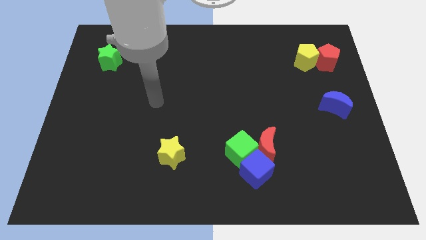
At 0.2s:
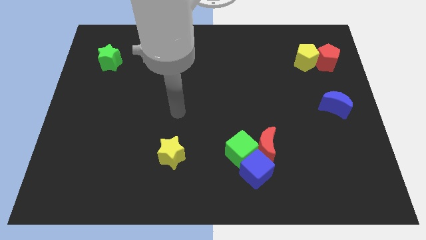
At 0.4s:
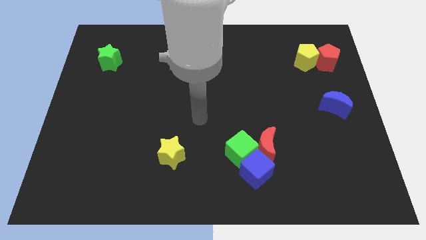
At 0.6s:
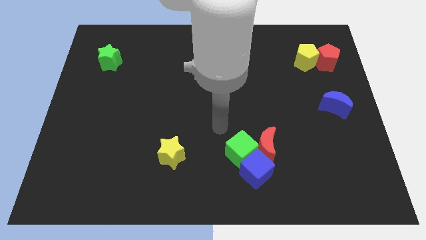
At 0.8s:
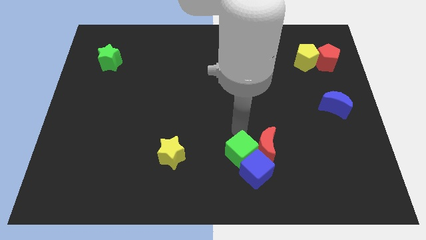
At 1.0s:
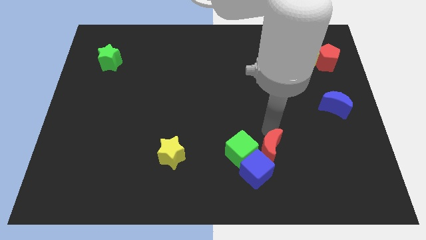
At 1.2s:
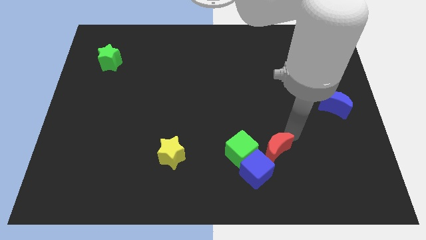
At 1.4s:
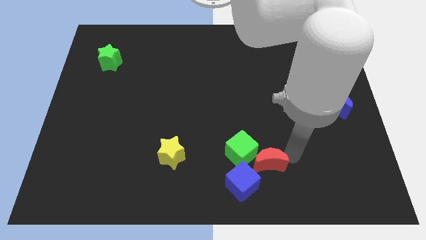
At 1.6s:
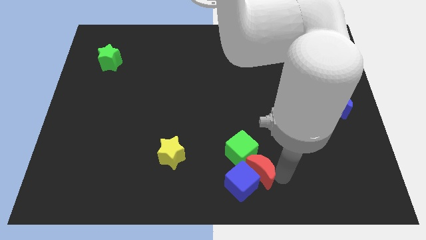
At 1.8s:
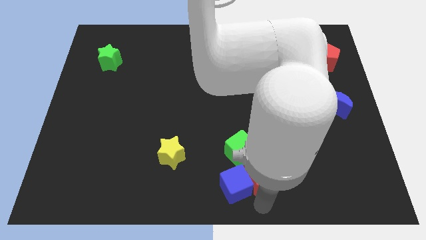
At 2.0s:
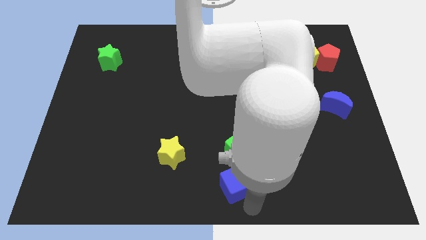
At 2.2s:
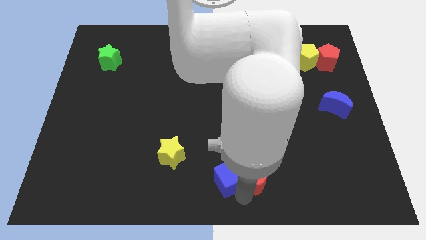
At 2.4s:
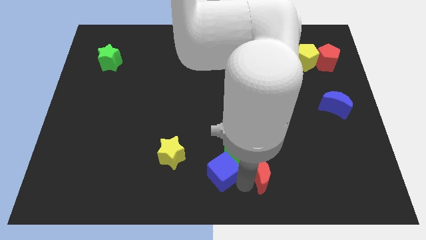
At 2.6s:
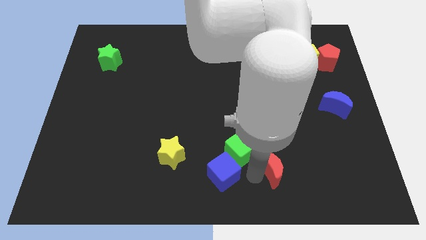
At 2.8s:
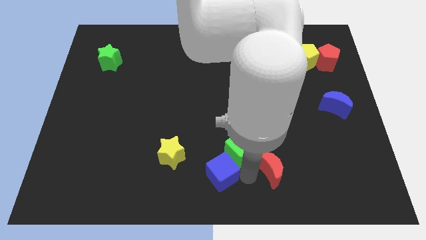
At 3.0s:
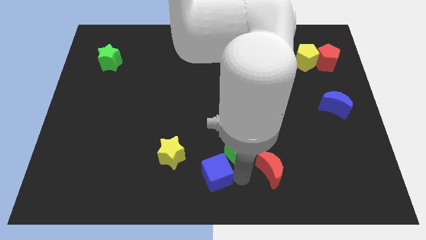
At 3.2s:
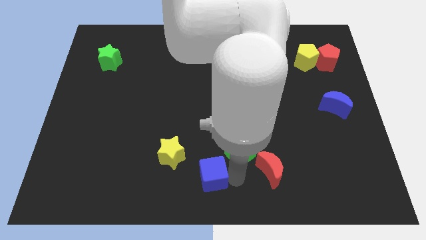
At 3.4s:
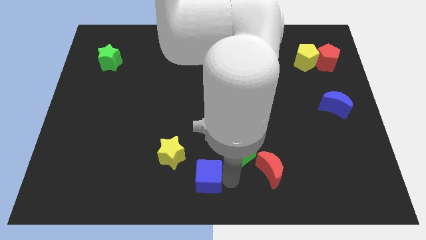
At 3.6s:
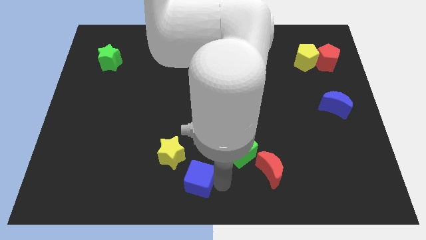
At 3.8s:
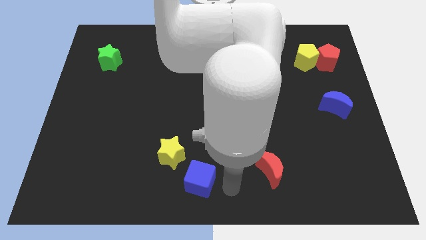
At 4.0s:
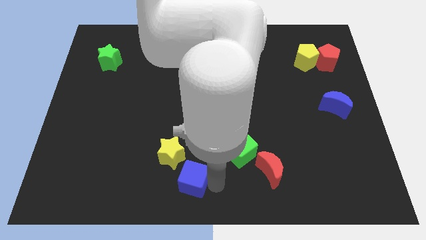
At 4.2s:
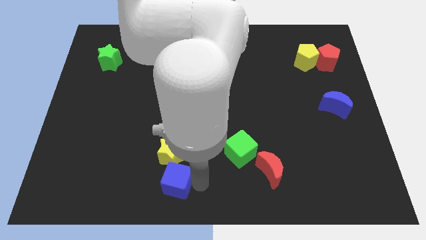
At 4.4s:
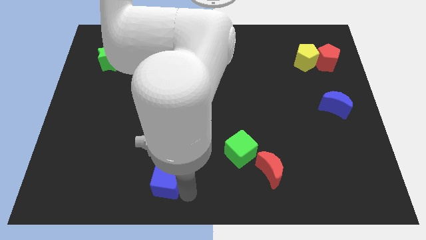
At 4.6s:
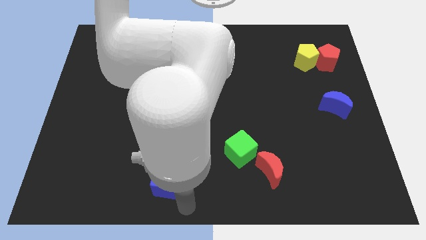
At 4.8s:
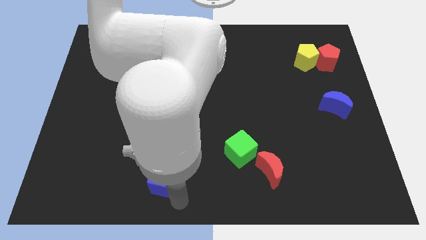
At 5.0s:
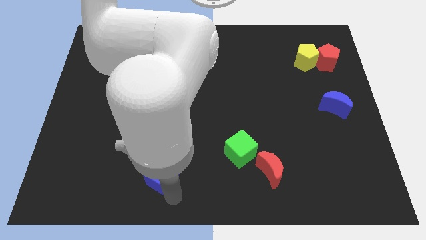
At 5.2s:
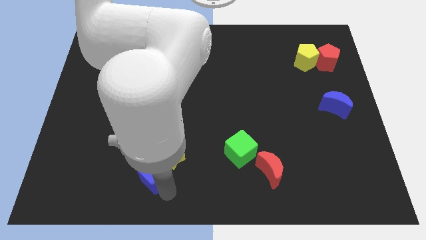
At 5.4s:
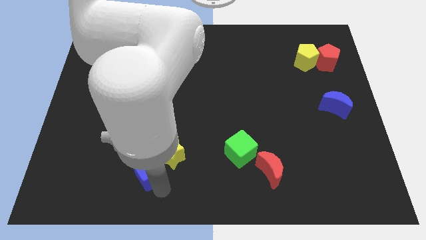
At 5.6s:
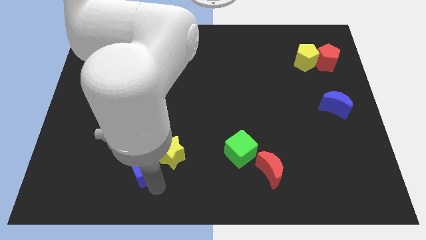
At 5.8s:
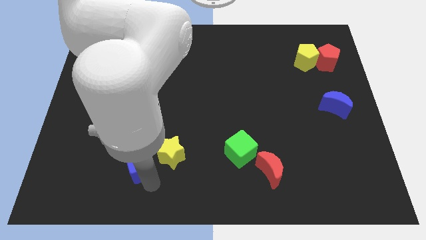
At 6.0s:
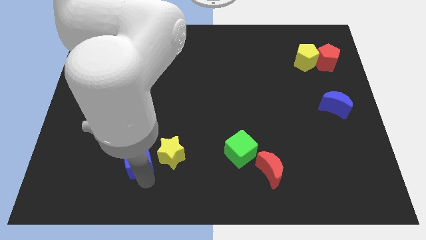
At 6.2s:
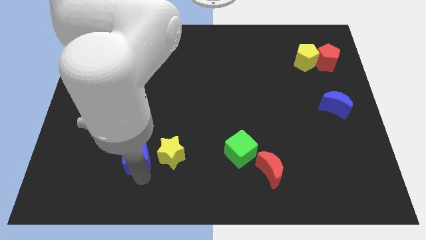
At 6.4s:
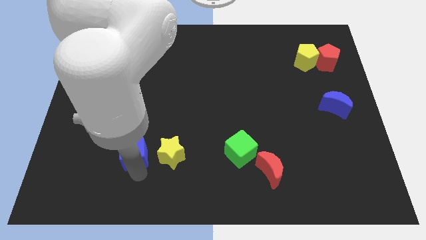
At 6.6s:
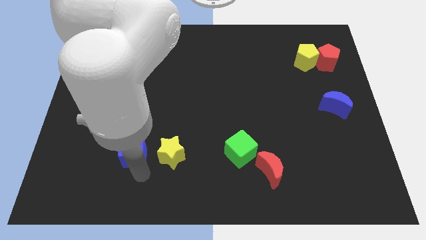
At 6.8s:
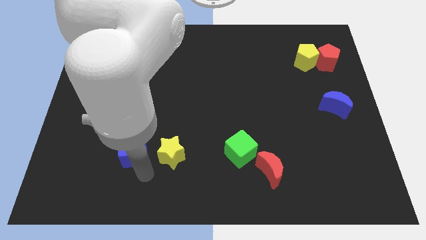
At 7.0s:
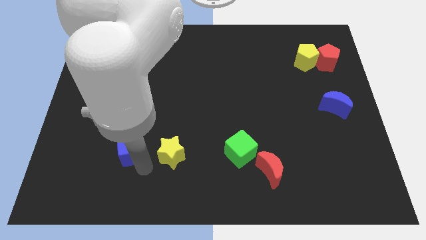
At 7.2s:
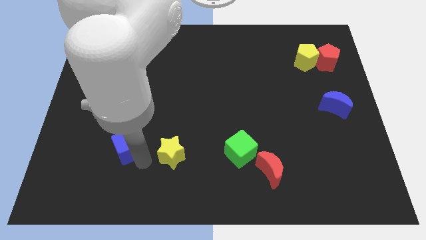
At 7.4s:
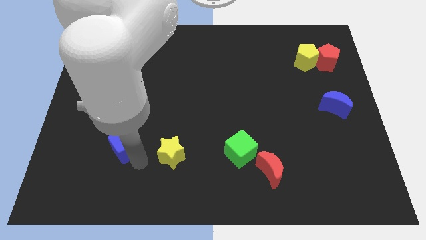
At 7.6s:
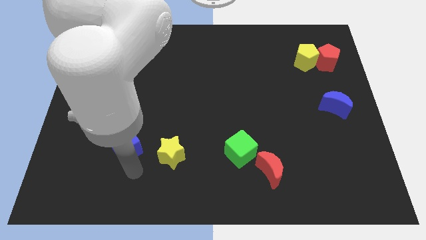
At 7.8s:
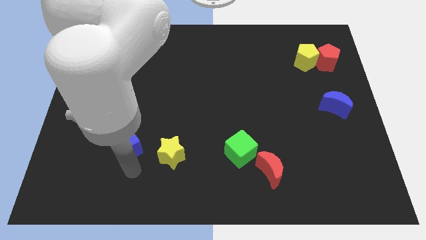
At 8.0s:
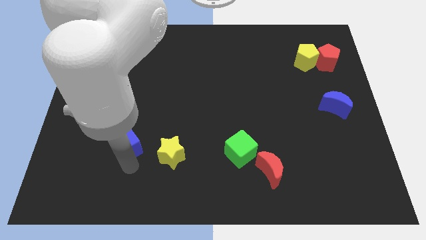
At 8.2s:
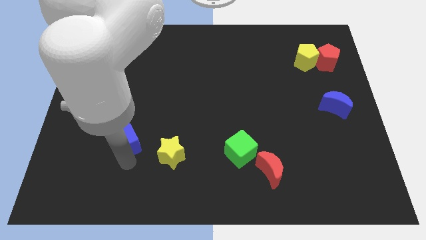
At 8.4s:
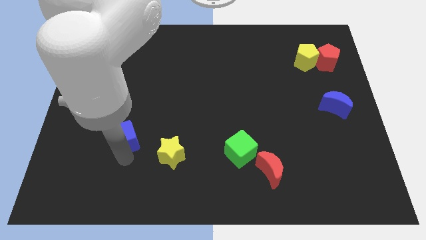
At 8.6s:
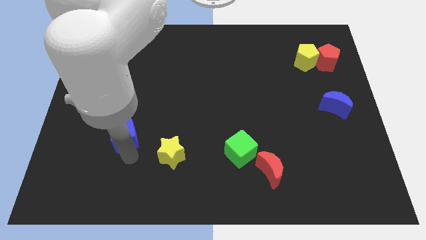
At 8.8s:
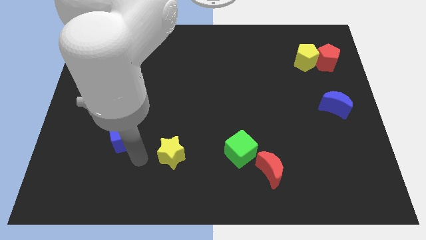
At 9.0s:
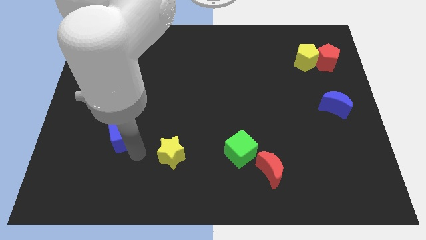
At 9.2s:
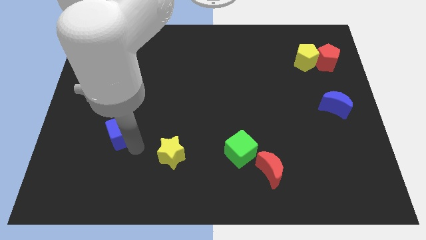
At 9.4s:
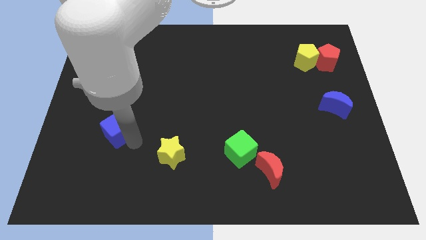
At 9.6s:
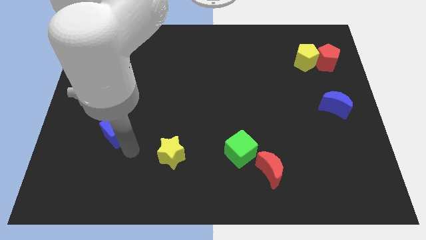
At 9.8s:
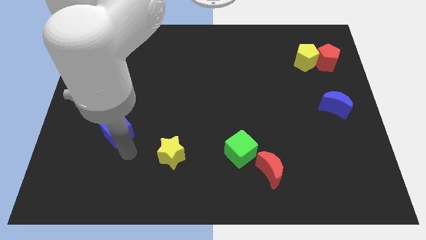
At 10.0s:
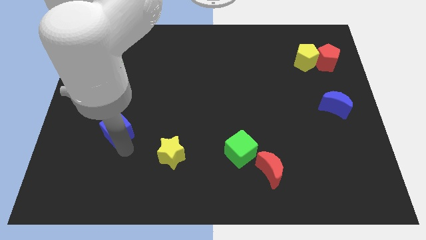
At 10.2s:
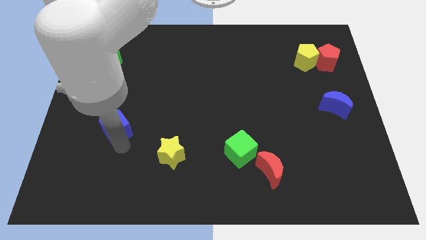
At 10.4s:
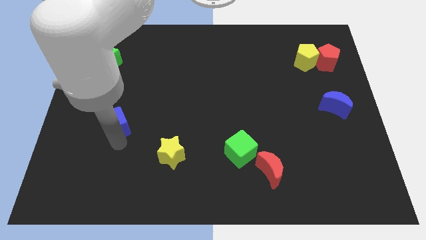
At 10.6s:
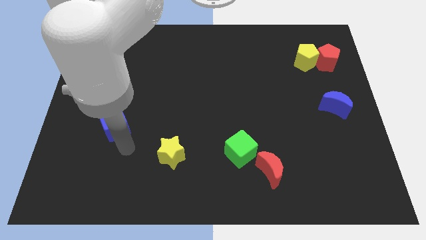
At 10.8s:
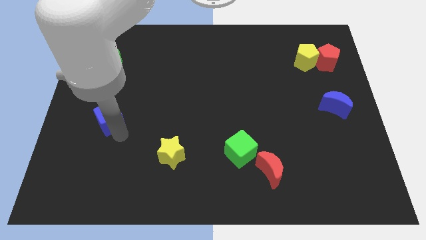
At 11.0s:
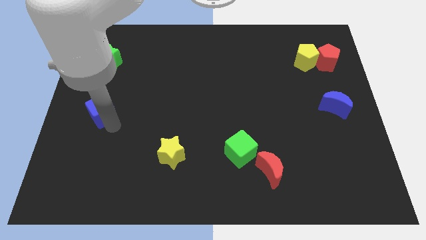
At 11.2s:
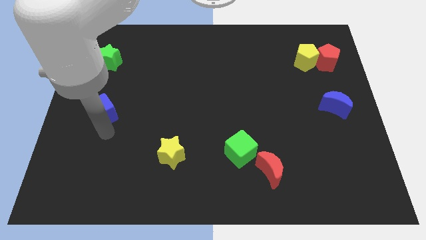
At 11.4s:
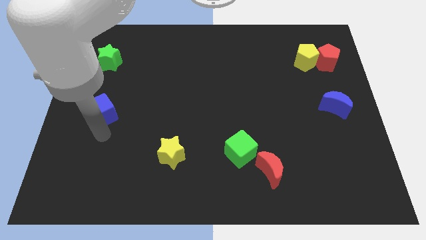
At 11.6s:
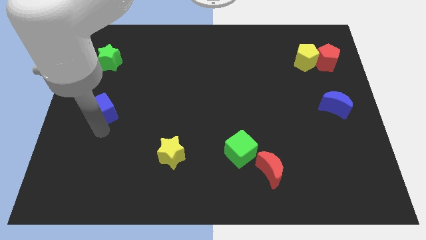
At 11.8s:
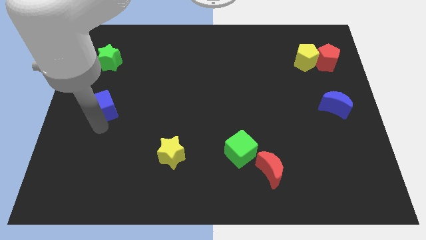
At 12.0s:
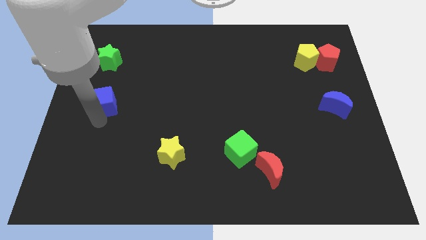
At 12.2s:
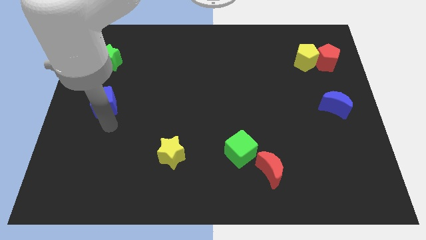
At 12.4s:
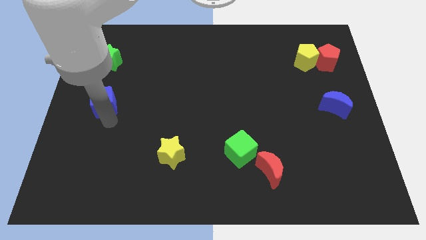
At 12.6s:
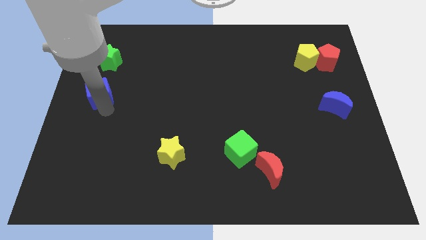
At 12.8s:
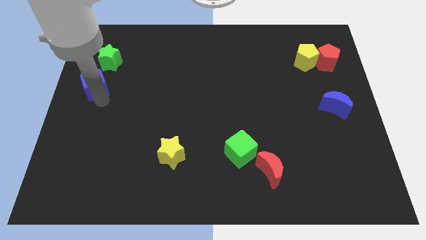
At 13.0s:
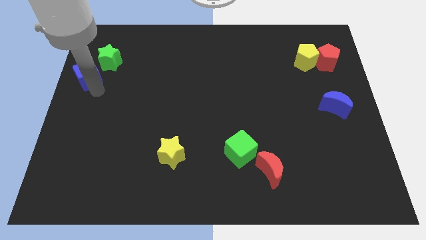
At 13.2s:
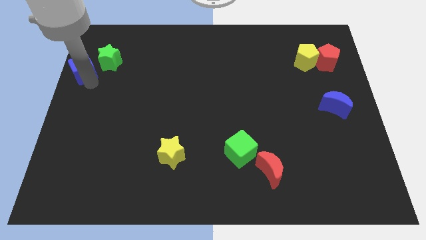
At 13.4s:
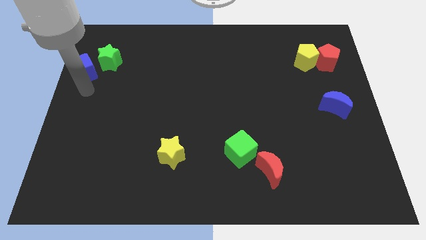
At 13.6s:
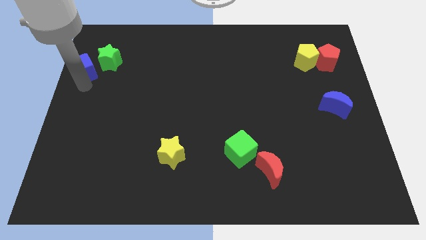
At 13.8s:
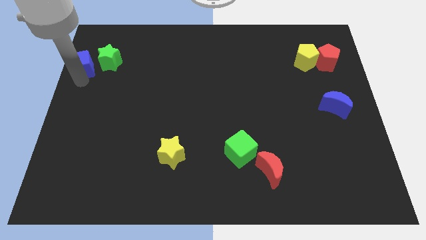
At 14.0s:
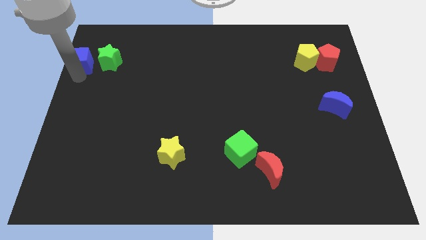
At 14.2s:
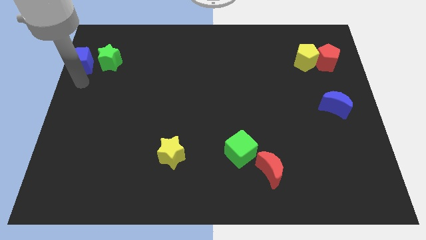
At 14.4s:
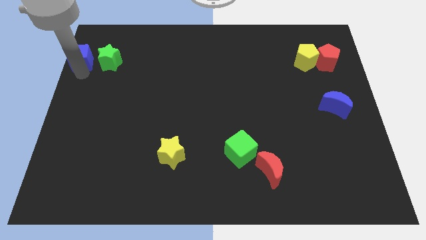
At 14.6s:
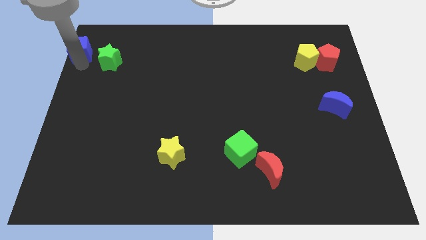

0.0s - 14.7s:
push the blue cube to the upper left corner
